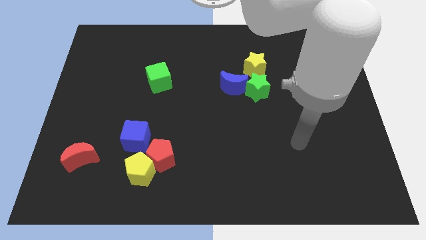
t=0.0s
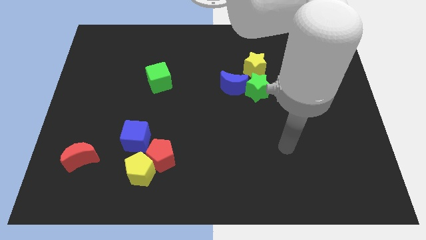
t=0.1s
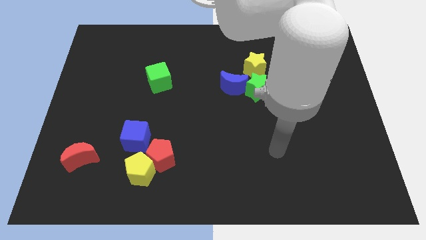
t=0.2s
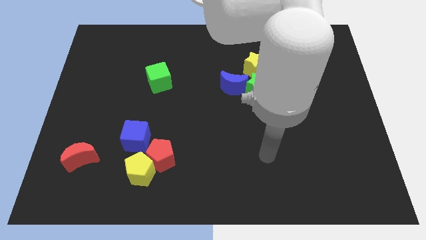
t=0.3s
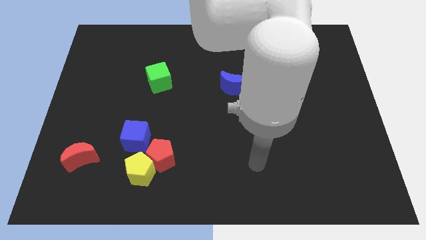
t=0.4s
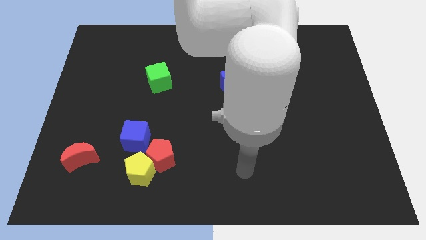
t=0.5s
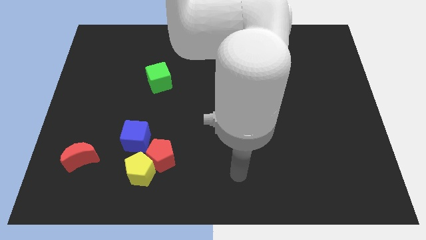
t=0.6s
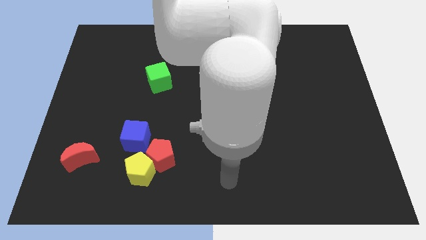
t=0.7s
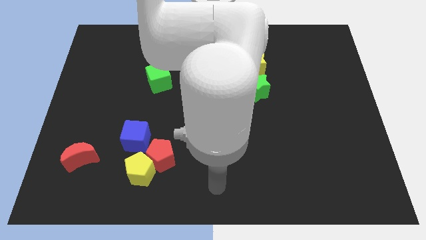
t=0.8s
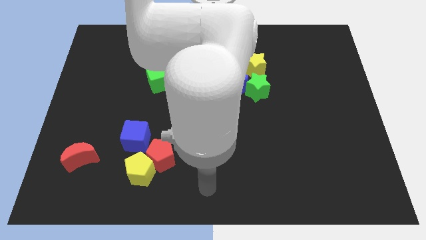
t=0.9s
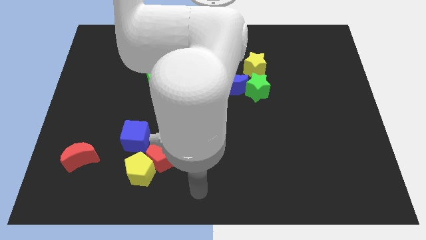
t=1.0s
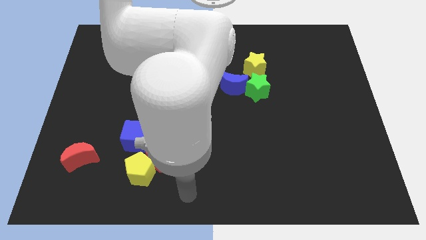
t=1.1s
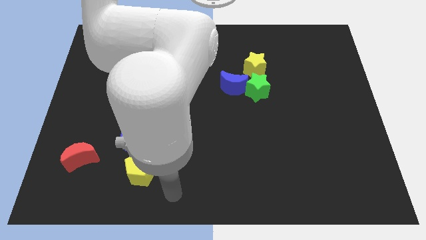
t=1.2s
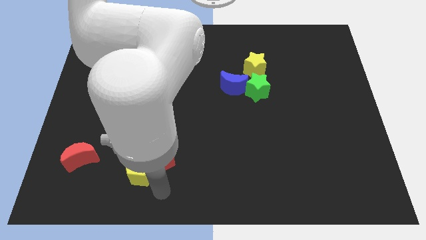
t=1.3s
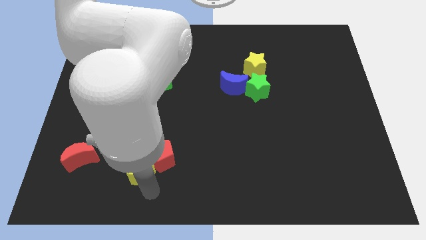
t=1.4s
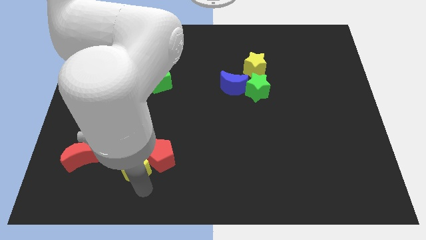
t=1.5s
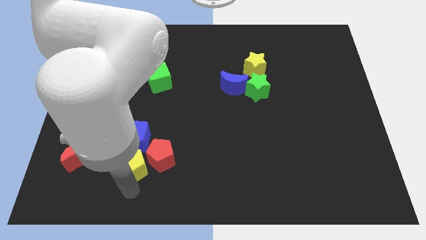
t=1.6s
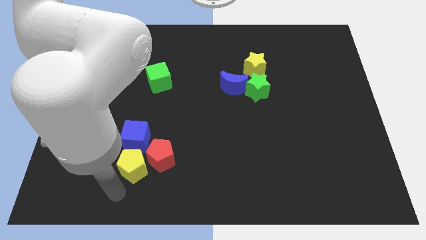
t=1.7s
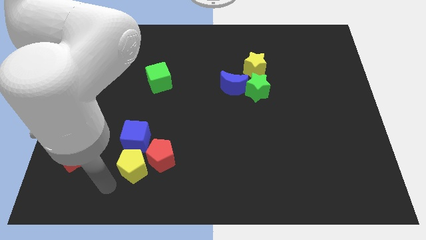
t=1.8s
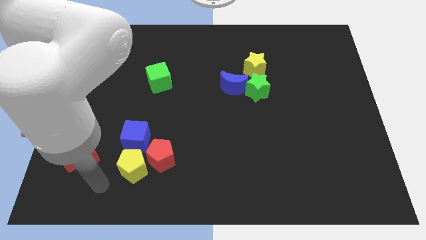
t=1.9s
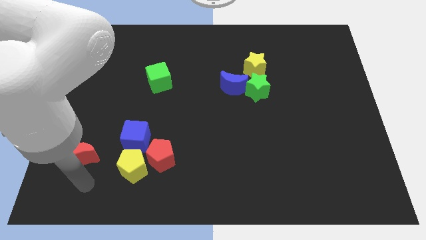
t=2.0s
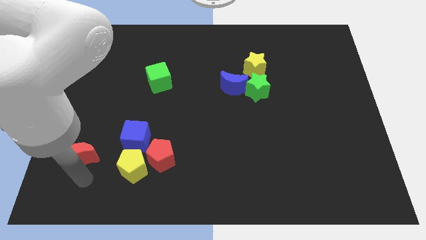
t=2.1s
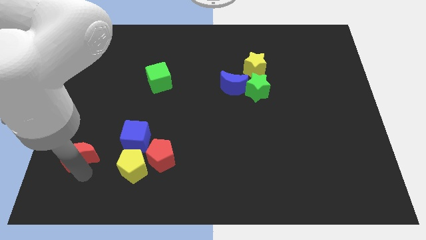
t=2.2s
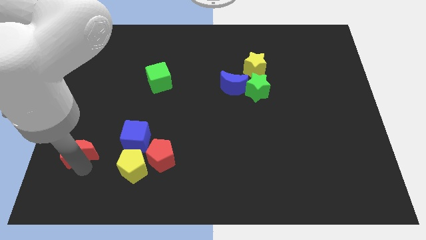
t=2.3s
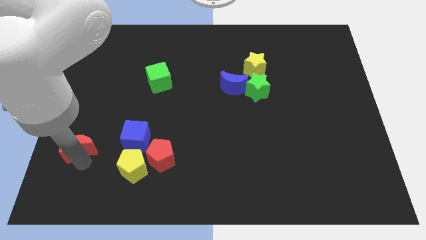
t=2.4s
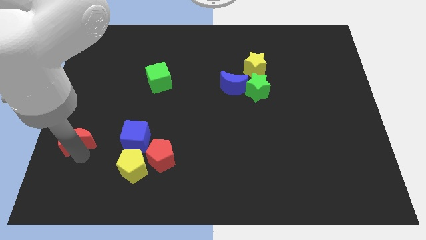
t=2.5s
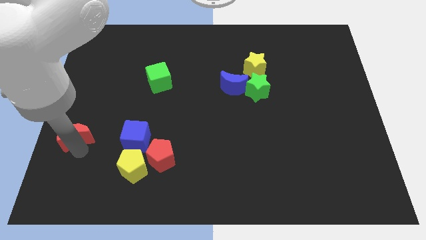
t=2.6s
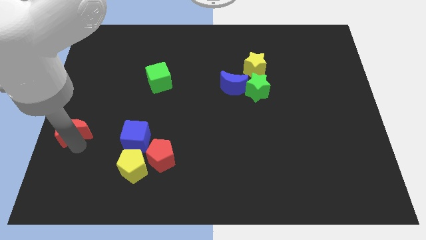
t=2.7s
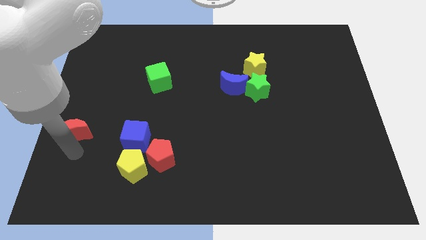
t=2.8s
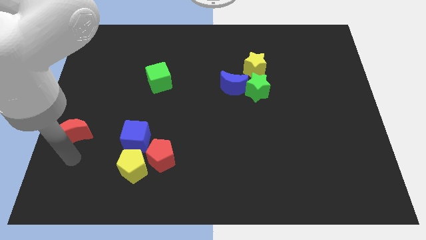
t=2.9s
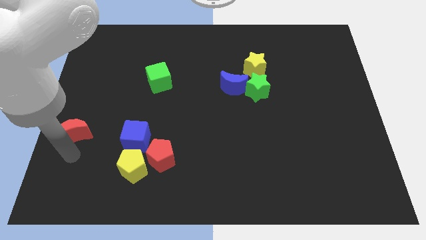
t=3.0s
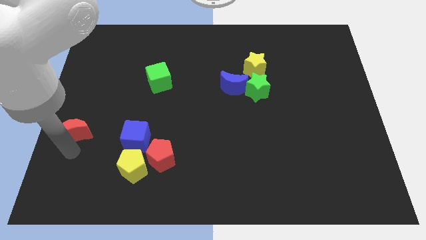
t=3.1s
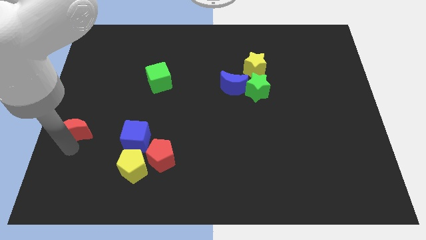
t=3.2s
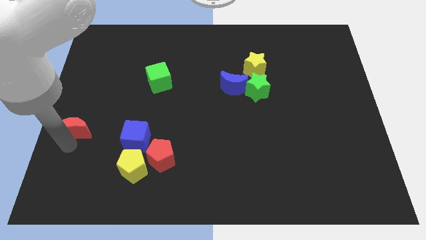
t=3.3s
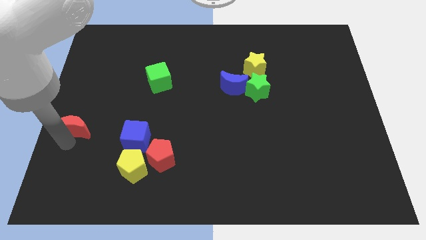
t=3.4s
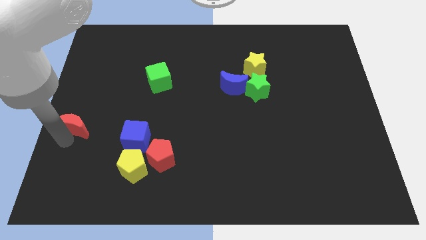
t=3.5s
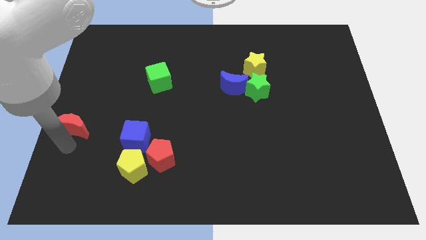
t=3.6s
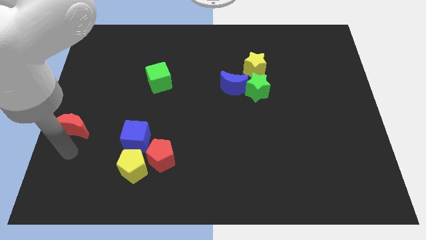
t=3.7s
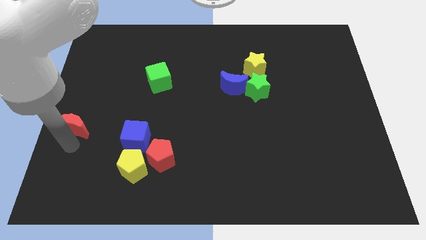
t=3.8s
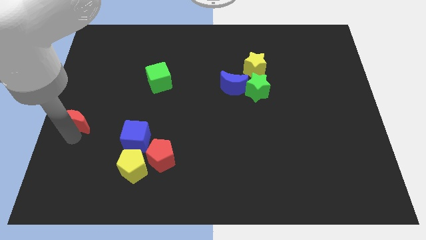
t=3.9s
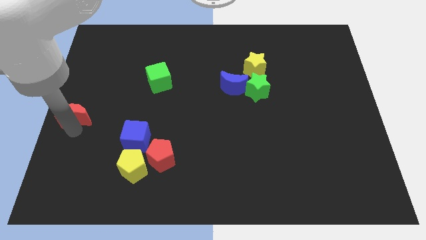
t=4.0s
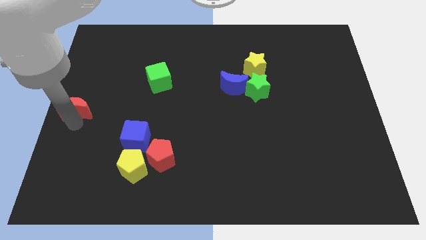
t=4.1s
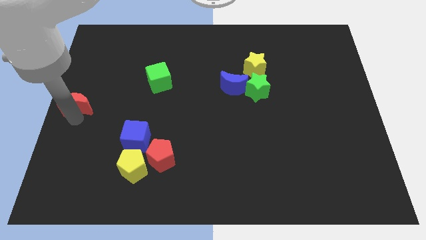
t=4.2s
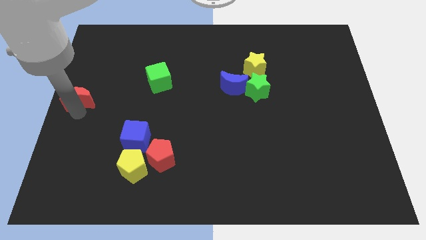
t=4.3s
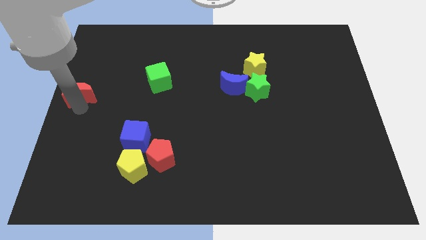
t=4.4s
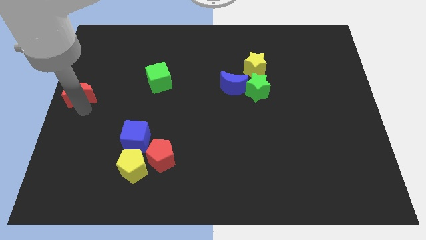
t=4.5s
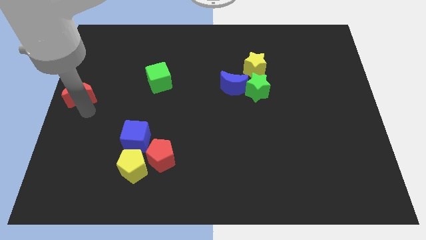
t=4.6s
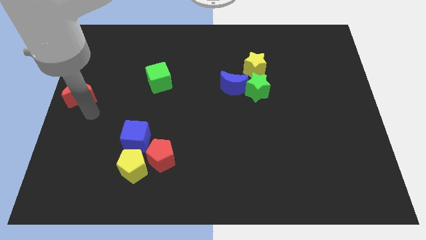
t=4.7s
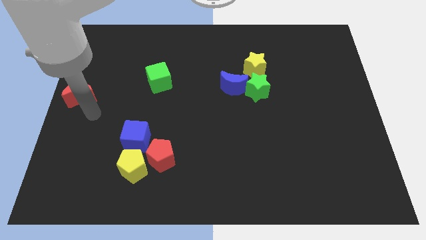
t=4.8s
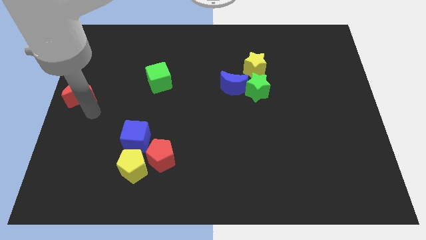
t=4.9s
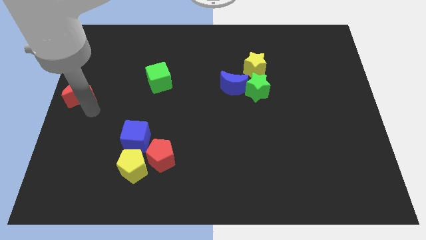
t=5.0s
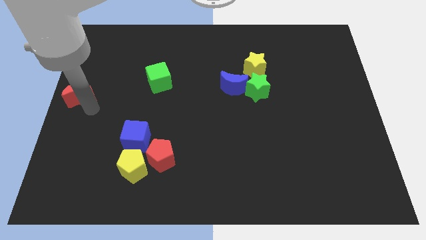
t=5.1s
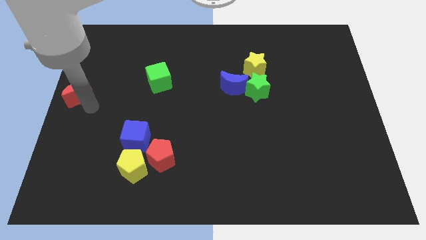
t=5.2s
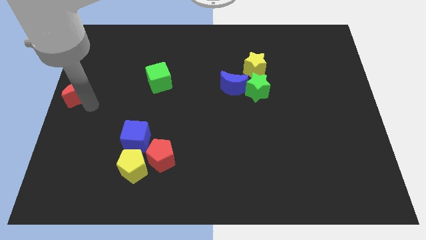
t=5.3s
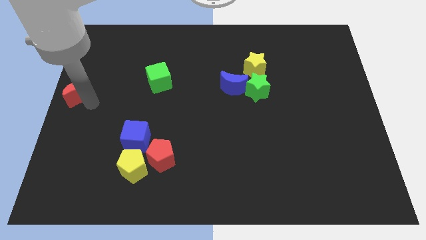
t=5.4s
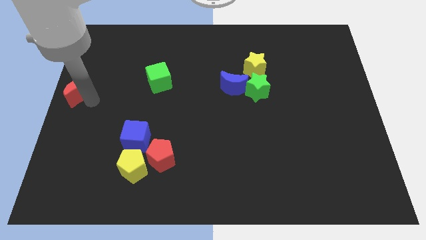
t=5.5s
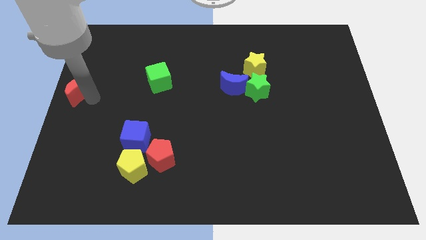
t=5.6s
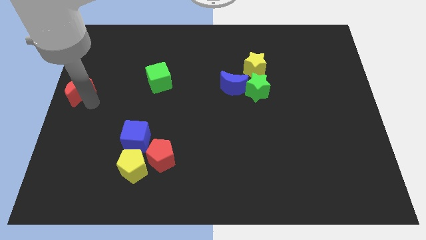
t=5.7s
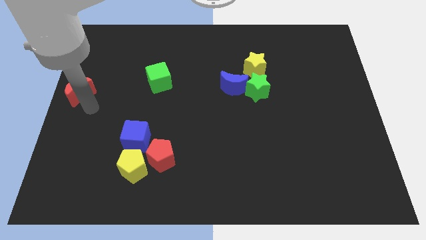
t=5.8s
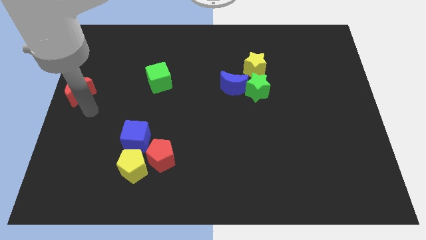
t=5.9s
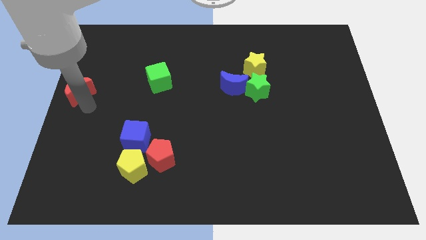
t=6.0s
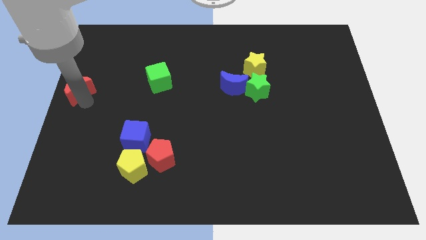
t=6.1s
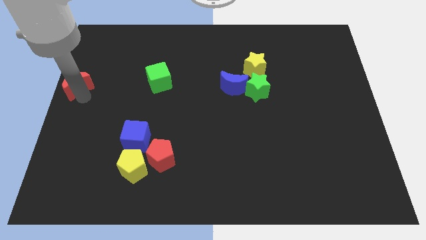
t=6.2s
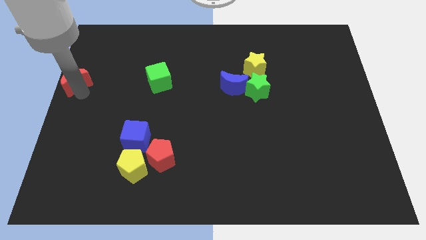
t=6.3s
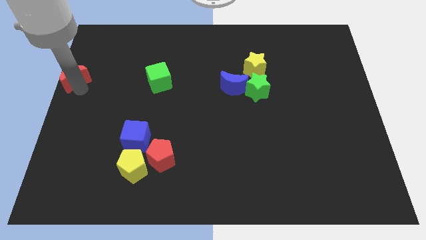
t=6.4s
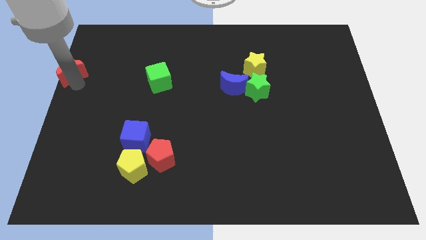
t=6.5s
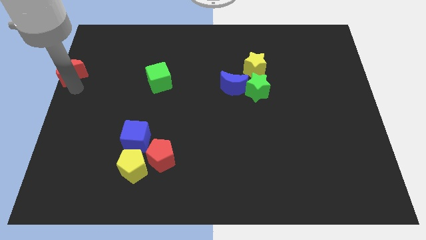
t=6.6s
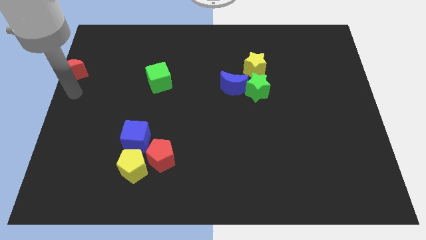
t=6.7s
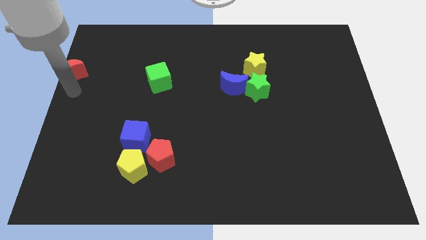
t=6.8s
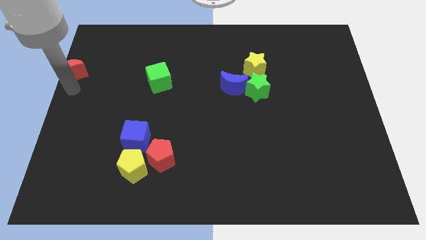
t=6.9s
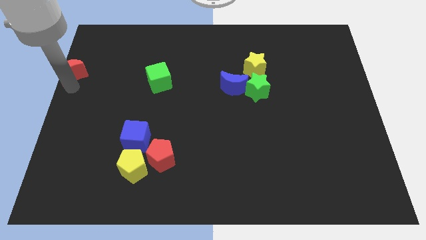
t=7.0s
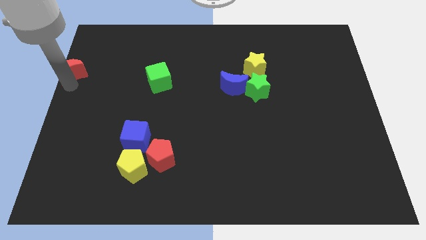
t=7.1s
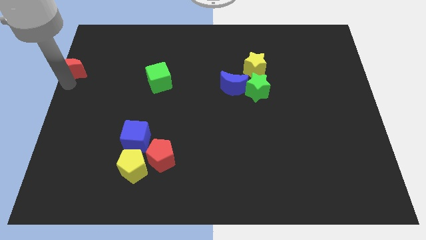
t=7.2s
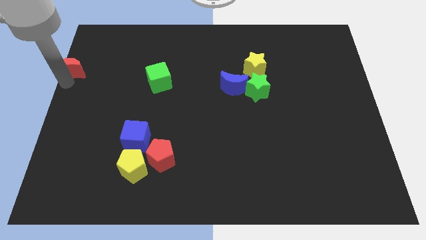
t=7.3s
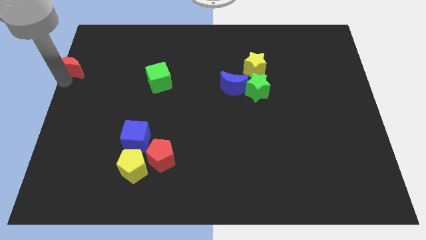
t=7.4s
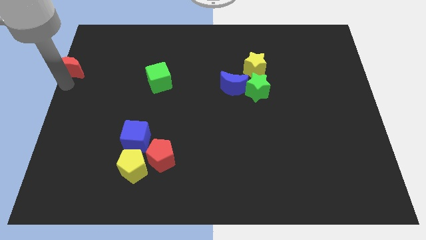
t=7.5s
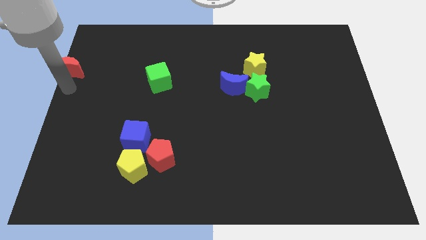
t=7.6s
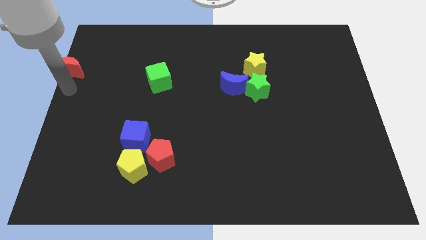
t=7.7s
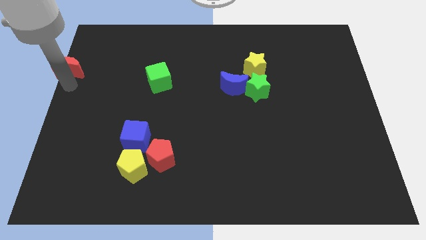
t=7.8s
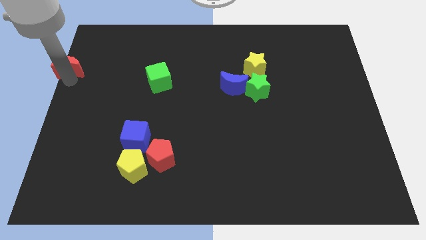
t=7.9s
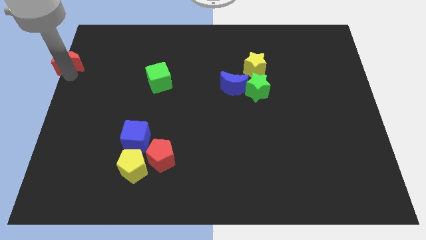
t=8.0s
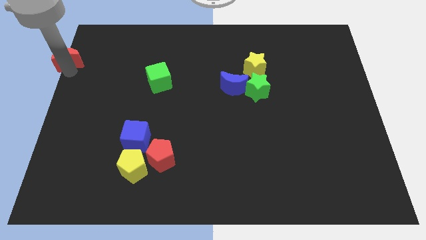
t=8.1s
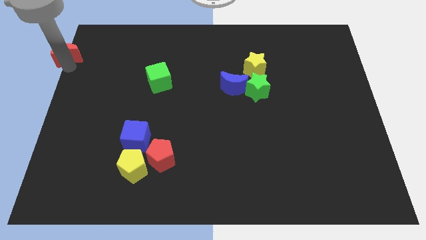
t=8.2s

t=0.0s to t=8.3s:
put the red moon to the upper left corner
